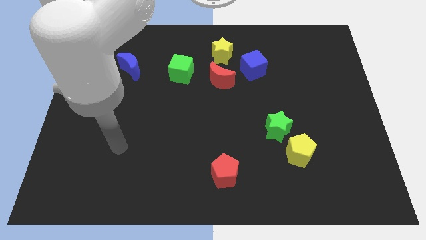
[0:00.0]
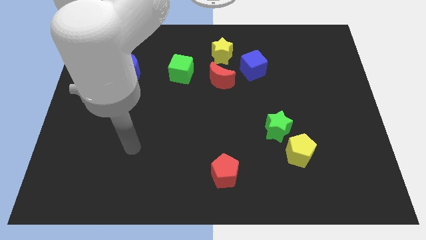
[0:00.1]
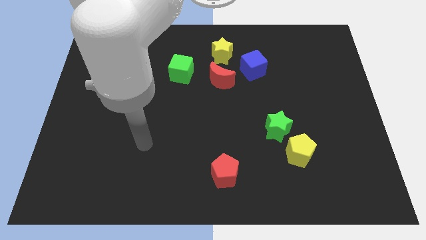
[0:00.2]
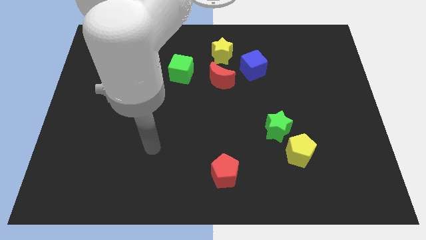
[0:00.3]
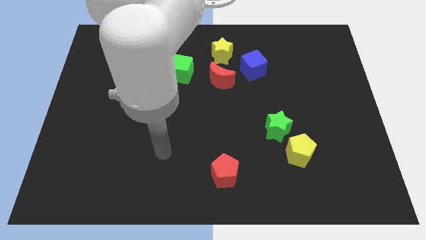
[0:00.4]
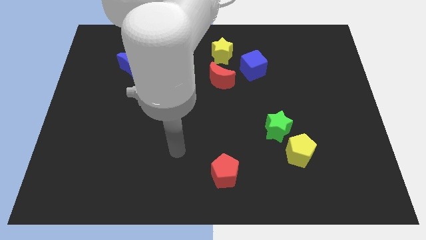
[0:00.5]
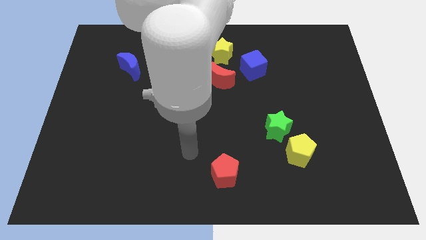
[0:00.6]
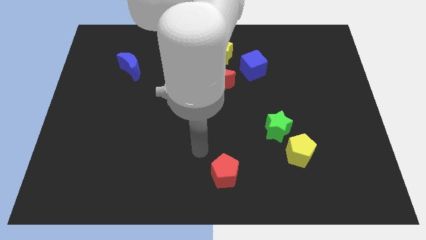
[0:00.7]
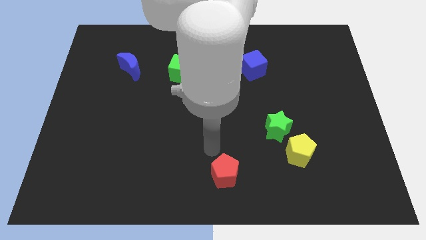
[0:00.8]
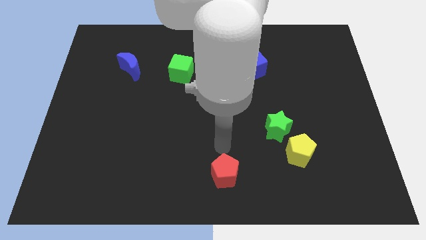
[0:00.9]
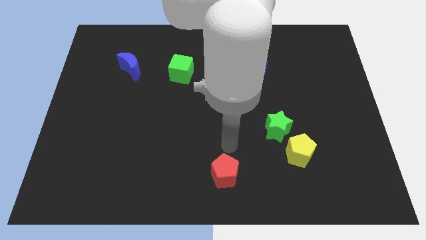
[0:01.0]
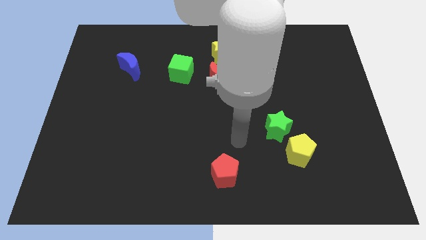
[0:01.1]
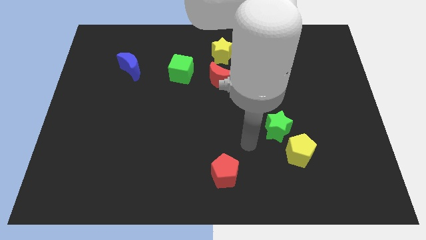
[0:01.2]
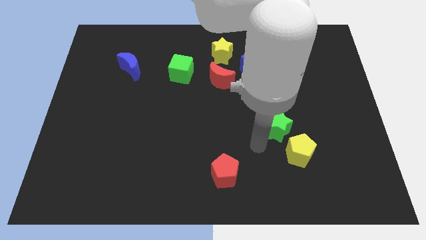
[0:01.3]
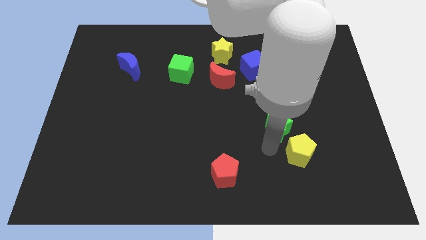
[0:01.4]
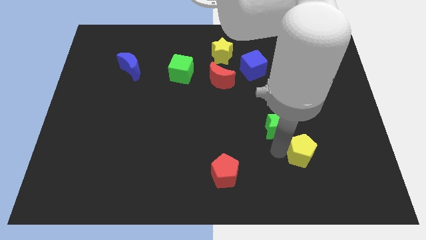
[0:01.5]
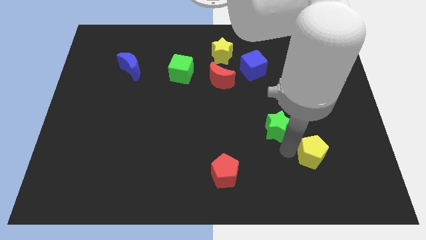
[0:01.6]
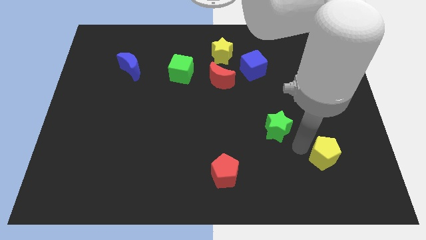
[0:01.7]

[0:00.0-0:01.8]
separate the green star from the yellow pentagon

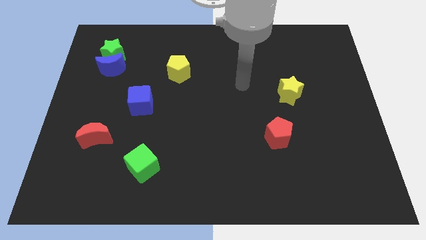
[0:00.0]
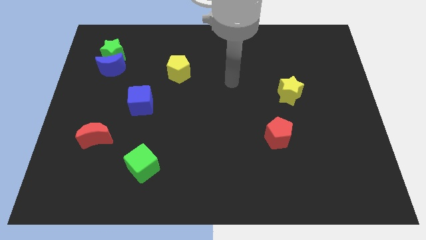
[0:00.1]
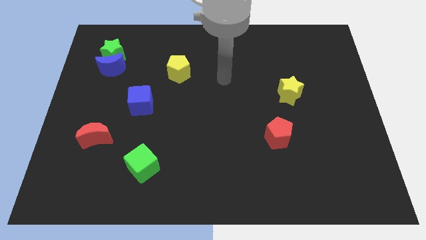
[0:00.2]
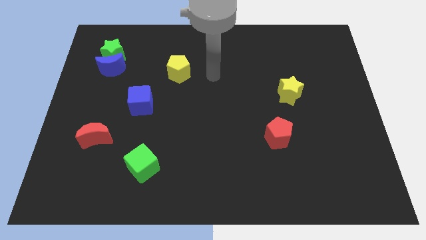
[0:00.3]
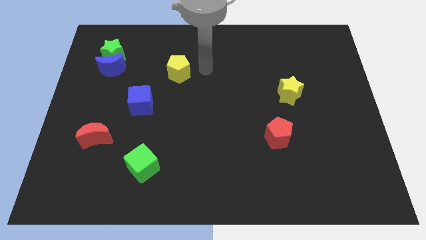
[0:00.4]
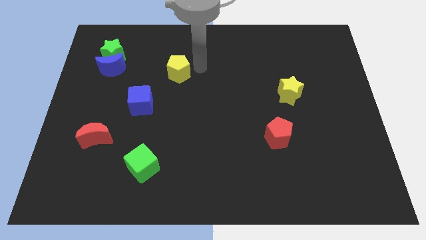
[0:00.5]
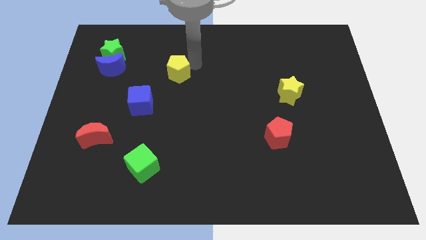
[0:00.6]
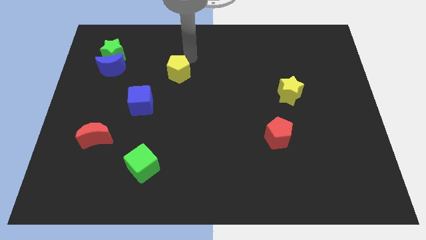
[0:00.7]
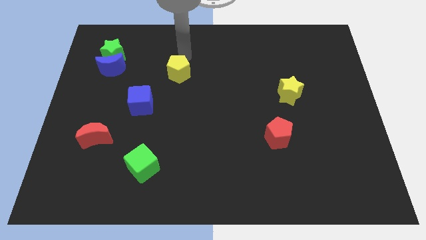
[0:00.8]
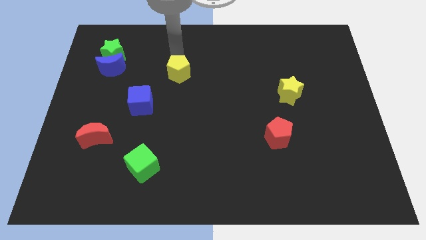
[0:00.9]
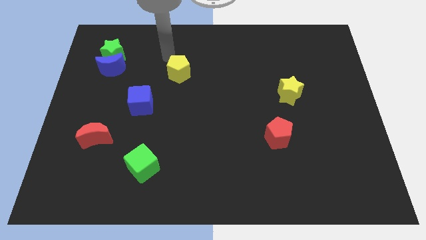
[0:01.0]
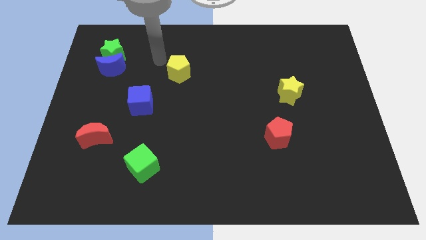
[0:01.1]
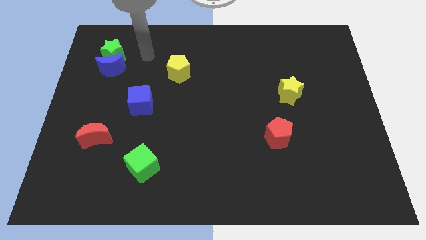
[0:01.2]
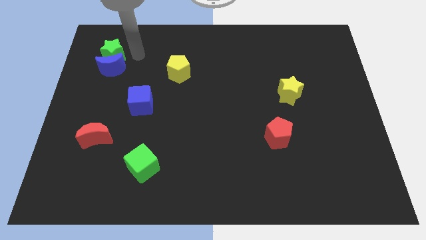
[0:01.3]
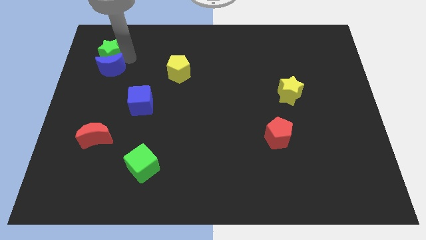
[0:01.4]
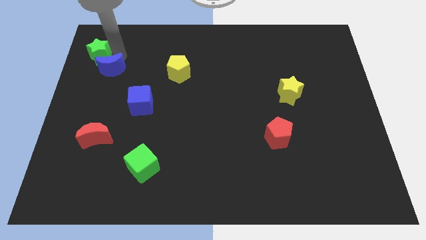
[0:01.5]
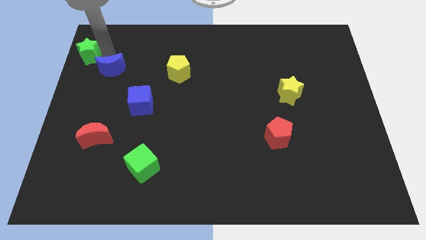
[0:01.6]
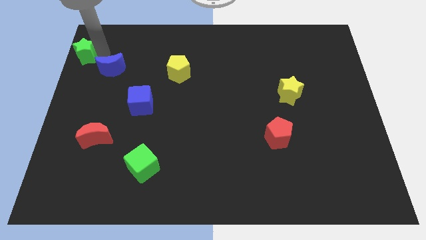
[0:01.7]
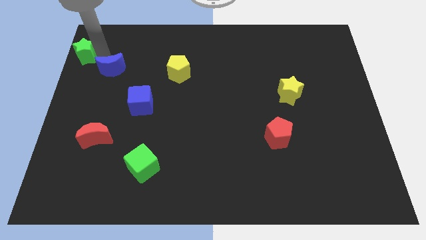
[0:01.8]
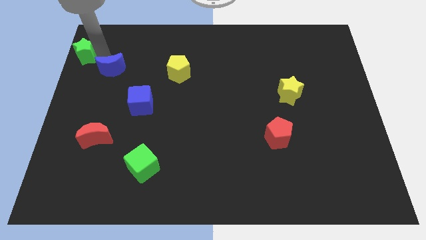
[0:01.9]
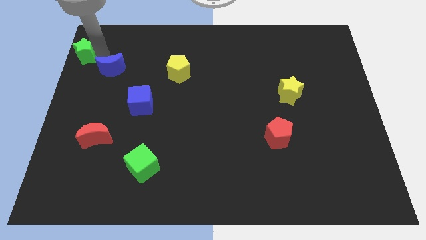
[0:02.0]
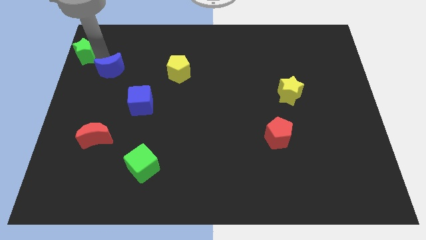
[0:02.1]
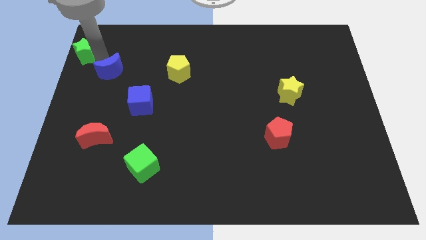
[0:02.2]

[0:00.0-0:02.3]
move the blue moon away from the green star

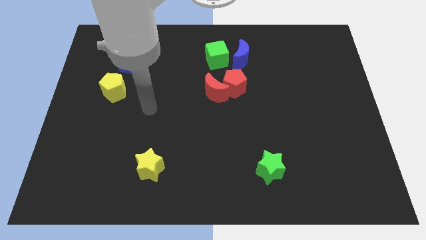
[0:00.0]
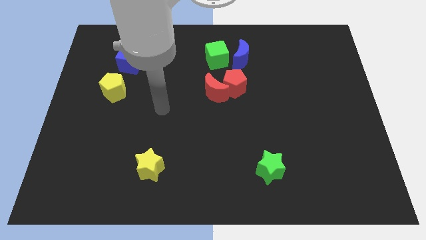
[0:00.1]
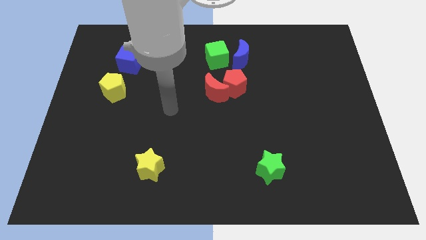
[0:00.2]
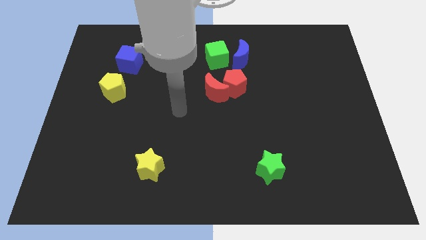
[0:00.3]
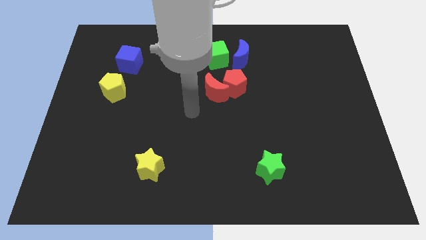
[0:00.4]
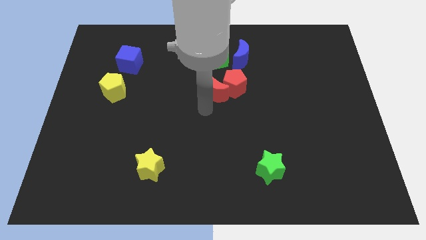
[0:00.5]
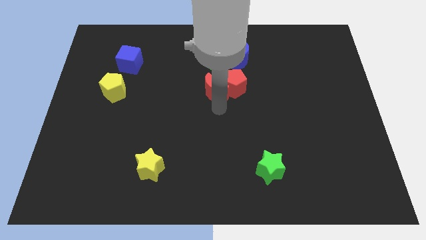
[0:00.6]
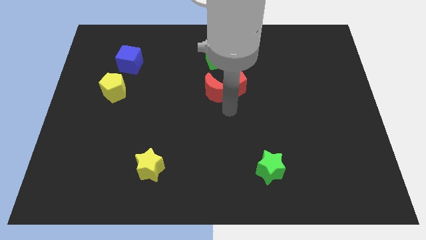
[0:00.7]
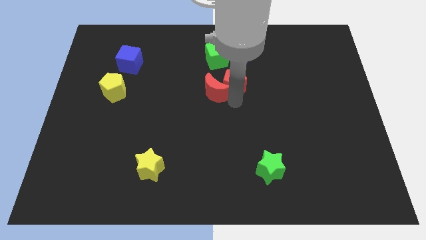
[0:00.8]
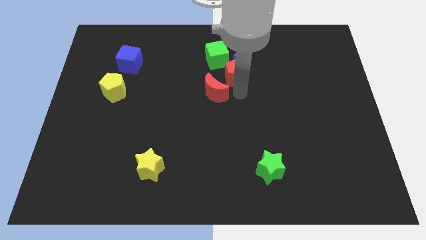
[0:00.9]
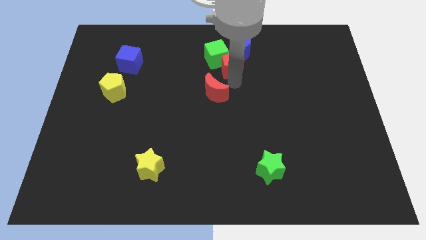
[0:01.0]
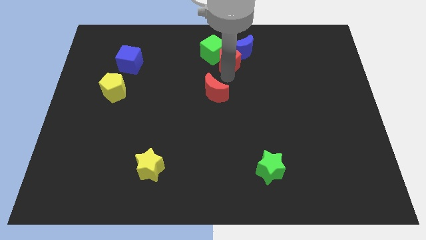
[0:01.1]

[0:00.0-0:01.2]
separate the red moon from the red pentagon

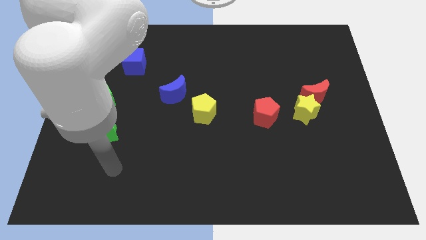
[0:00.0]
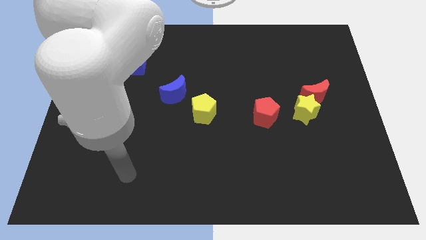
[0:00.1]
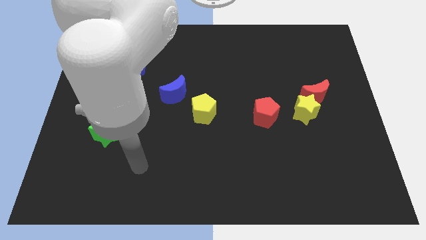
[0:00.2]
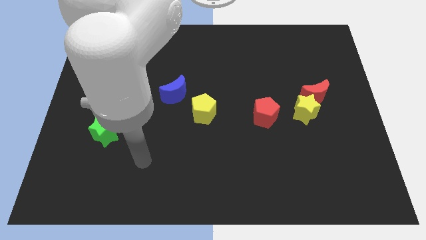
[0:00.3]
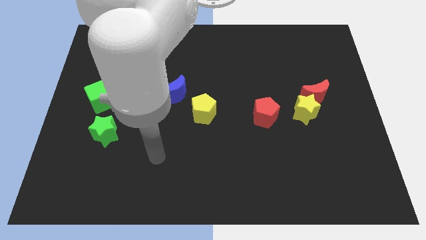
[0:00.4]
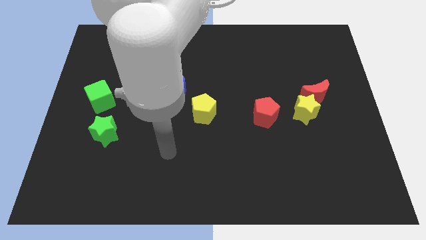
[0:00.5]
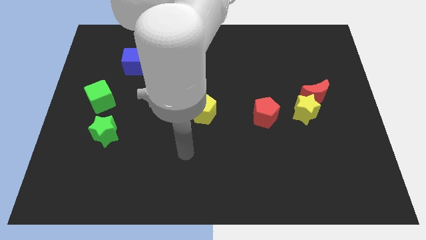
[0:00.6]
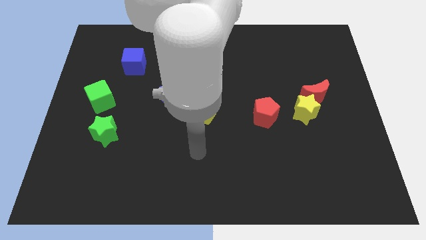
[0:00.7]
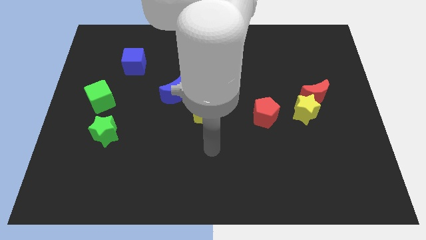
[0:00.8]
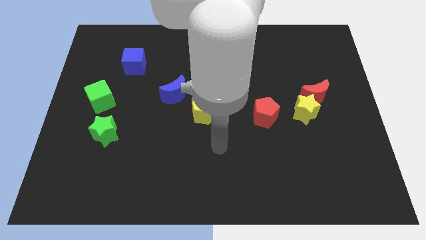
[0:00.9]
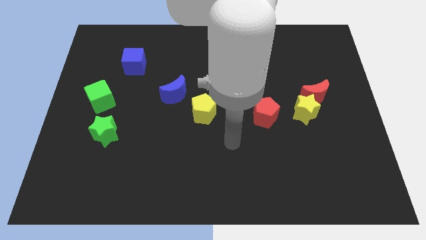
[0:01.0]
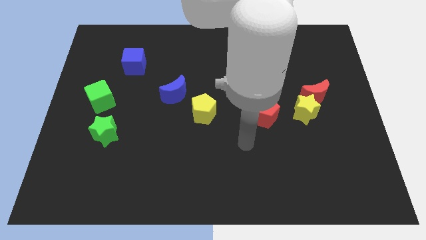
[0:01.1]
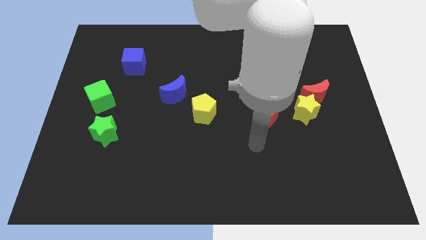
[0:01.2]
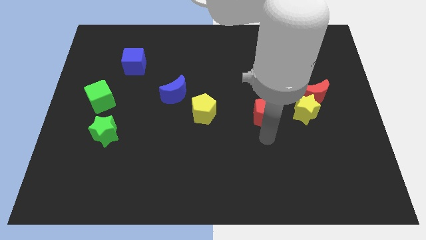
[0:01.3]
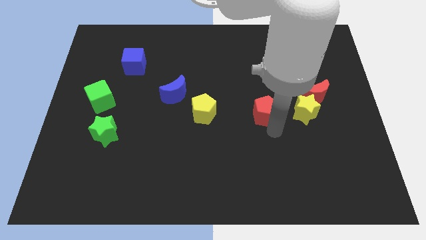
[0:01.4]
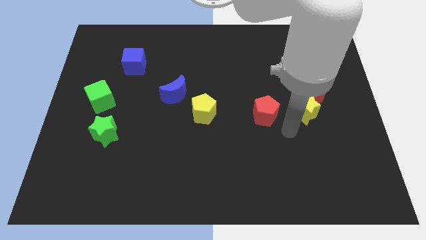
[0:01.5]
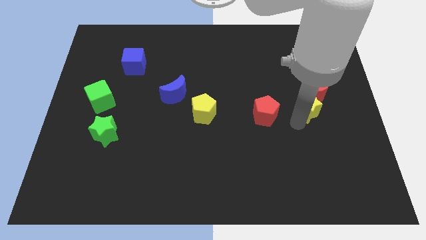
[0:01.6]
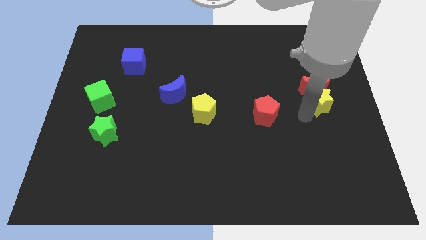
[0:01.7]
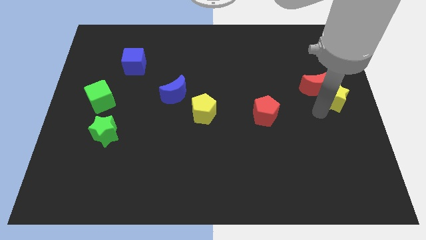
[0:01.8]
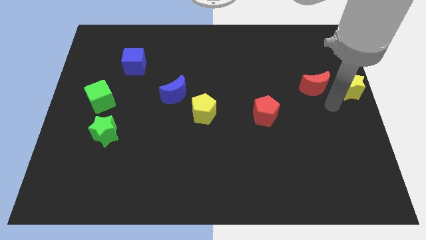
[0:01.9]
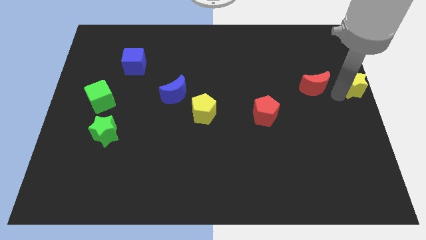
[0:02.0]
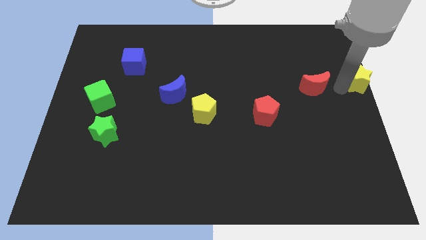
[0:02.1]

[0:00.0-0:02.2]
move the red moon away from the yellow star

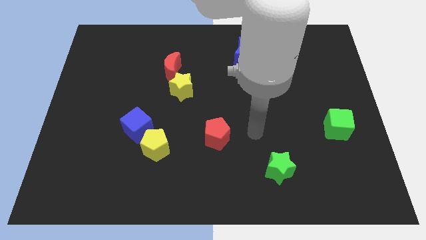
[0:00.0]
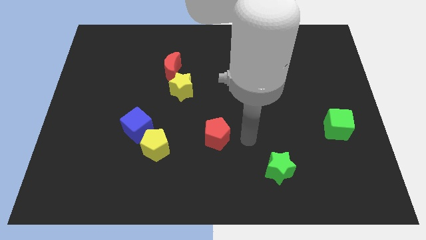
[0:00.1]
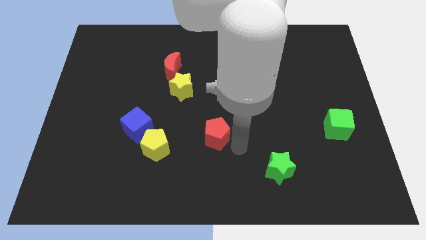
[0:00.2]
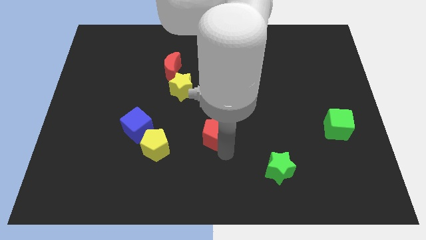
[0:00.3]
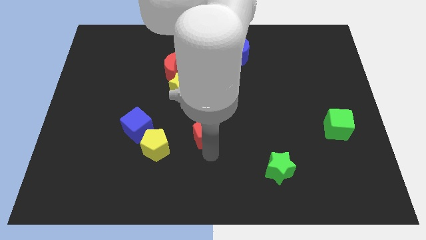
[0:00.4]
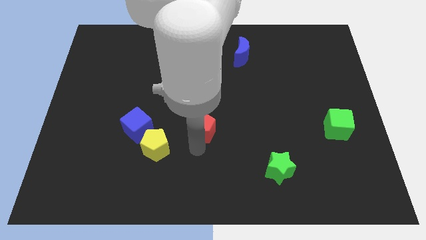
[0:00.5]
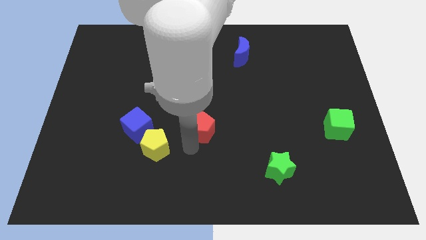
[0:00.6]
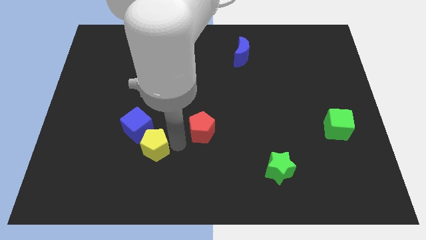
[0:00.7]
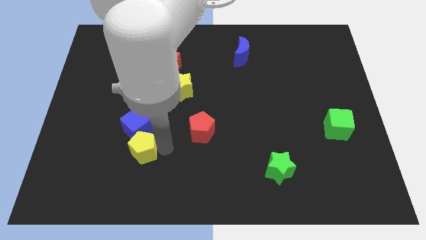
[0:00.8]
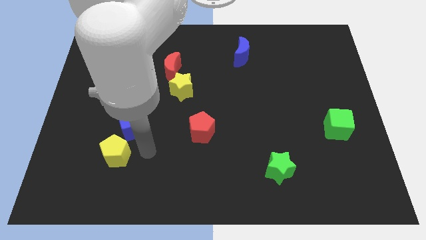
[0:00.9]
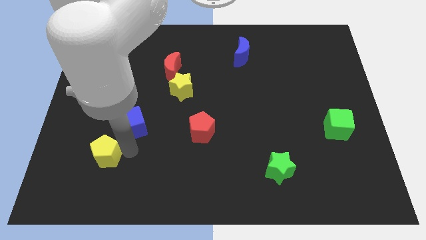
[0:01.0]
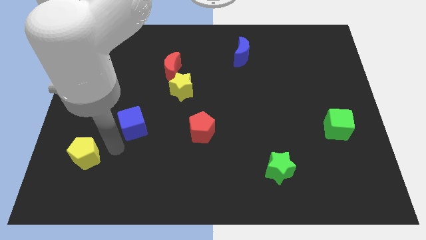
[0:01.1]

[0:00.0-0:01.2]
pull the blue cube apart from the yellow pentagon

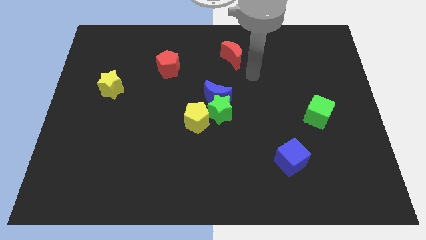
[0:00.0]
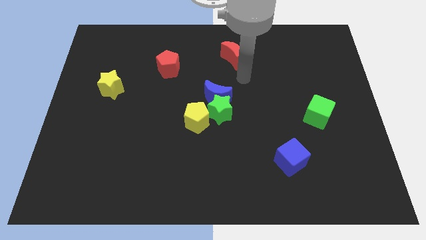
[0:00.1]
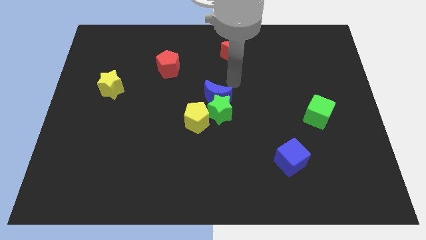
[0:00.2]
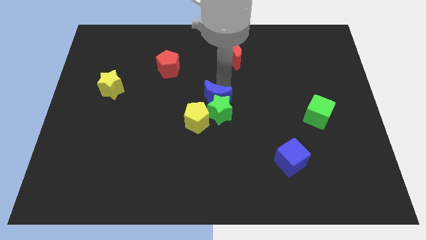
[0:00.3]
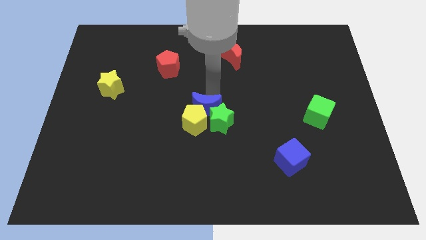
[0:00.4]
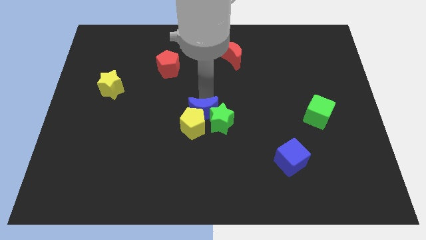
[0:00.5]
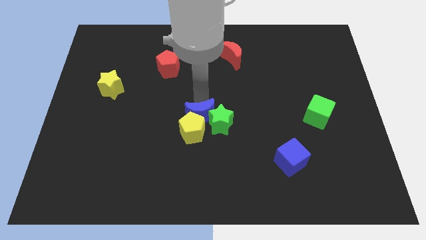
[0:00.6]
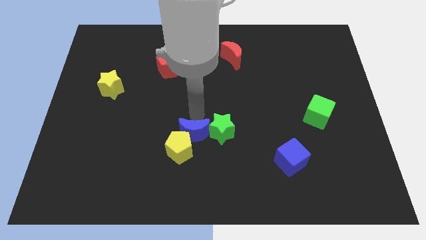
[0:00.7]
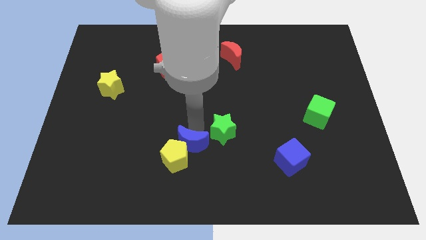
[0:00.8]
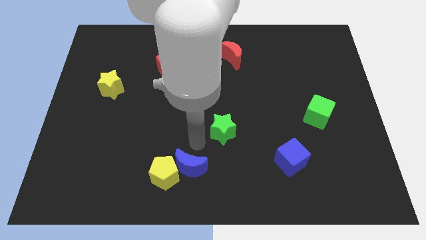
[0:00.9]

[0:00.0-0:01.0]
pull the green star apart from the blue moon and yellow pentagon
